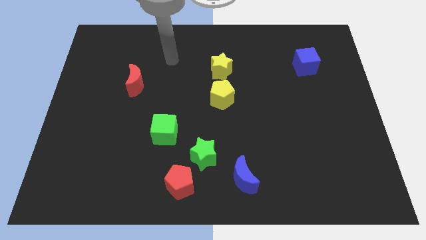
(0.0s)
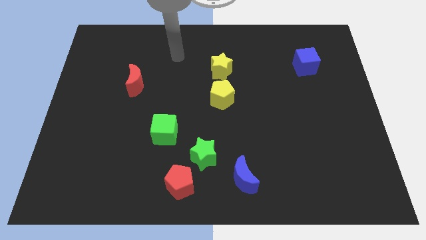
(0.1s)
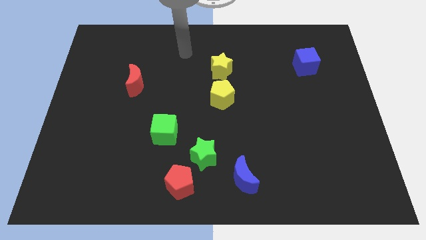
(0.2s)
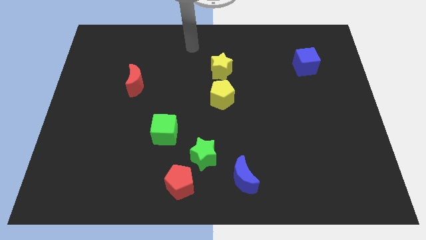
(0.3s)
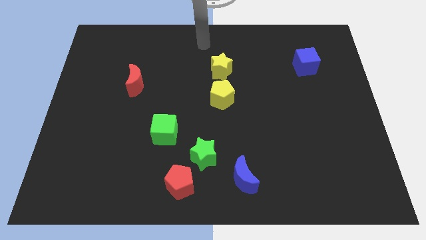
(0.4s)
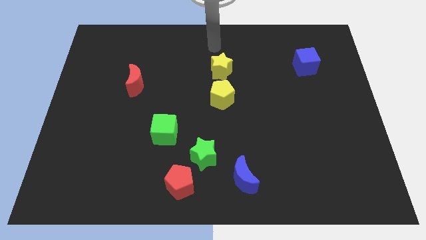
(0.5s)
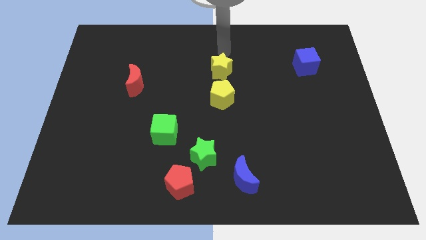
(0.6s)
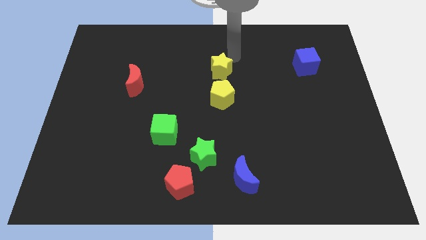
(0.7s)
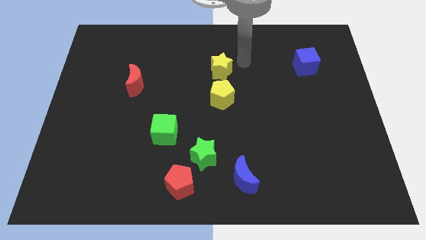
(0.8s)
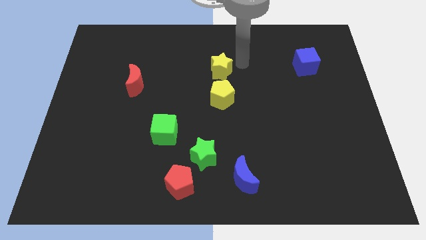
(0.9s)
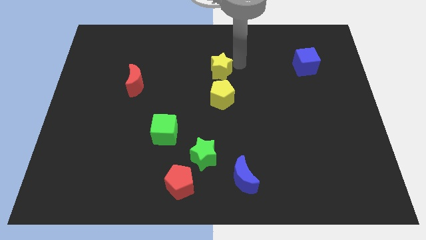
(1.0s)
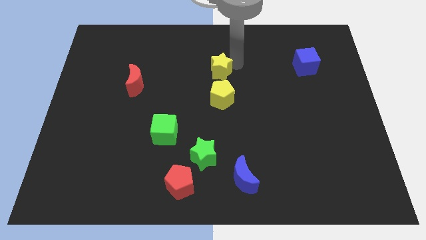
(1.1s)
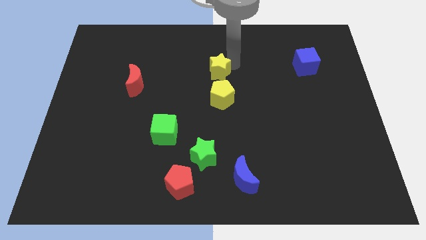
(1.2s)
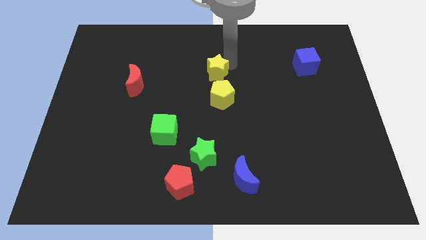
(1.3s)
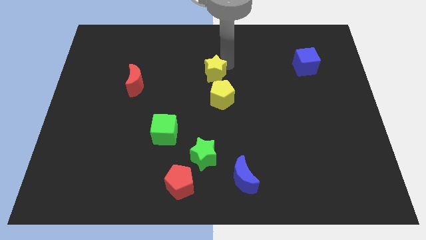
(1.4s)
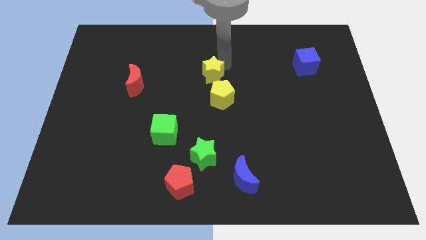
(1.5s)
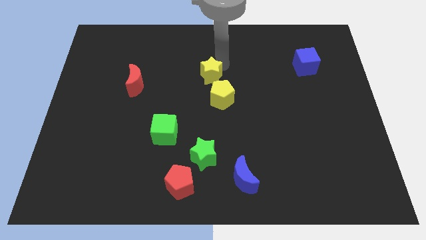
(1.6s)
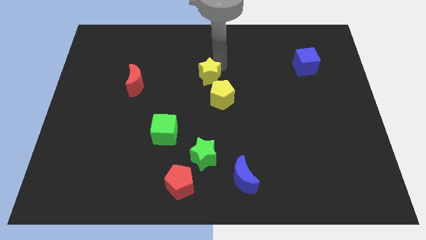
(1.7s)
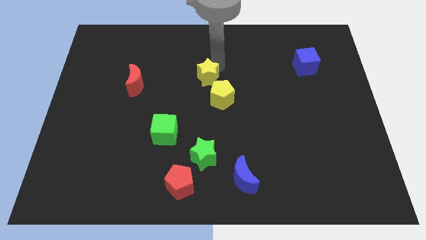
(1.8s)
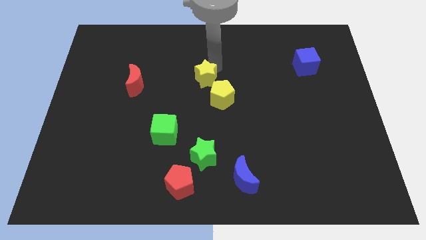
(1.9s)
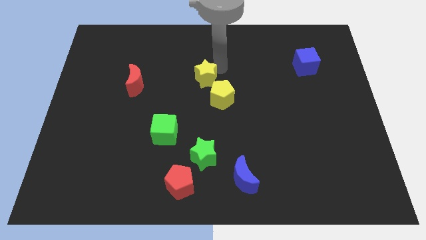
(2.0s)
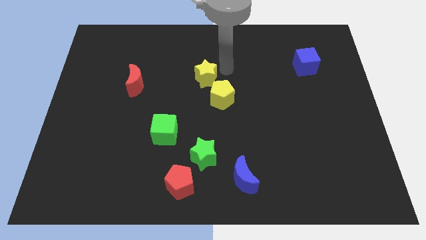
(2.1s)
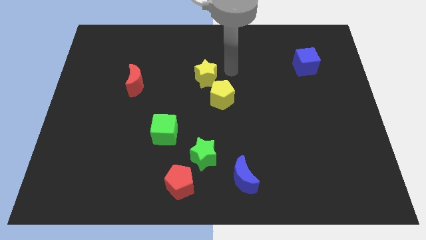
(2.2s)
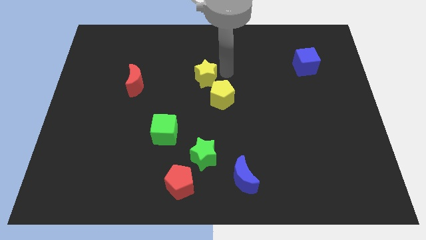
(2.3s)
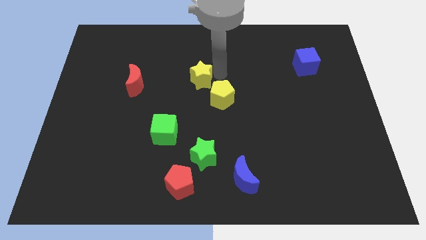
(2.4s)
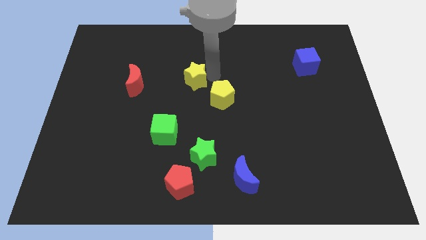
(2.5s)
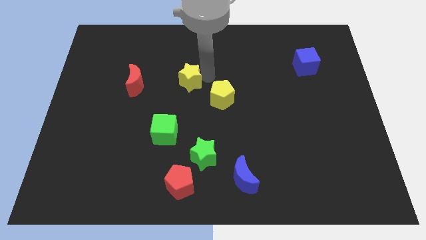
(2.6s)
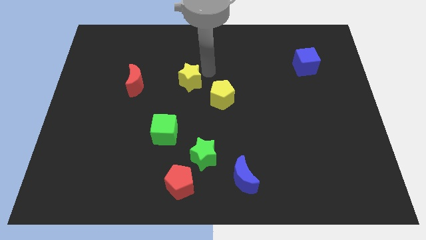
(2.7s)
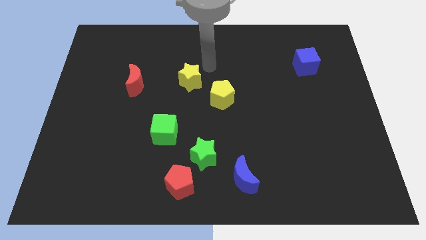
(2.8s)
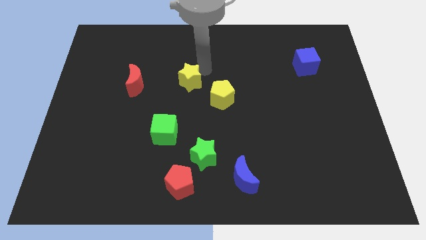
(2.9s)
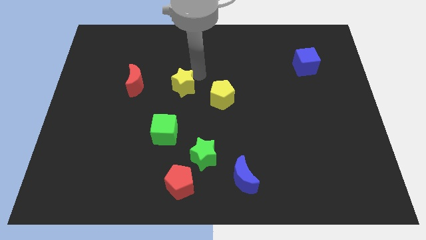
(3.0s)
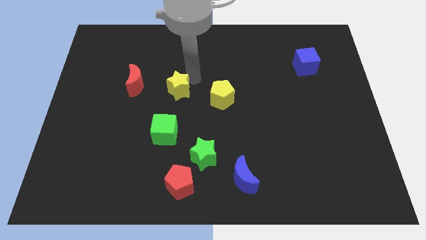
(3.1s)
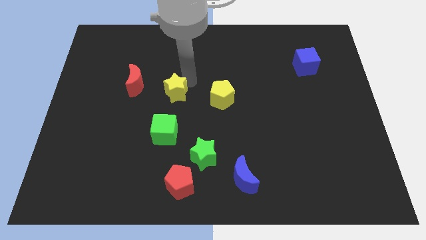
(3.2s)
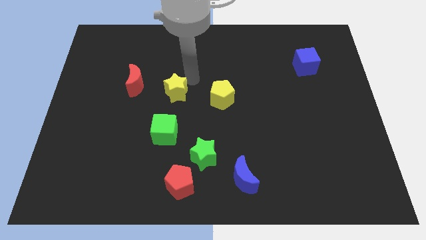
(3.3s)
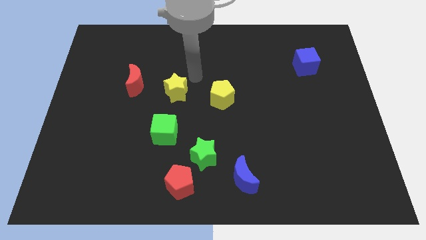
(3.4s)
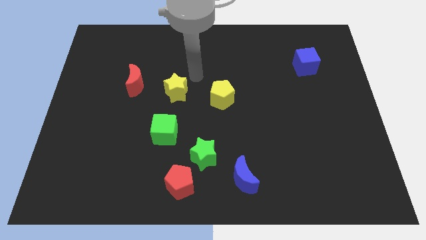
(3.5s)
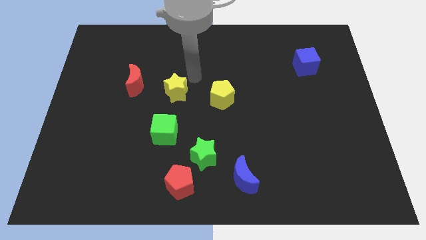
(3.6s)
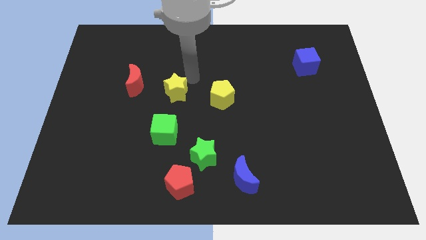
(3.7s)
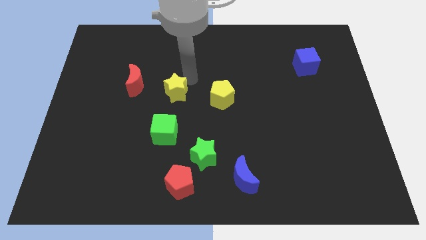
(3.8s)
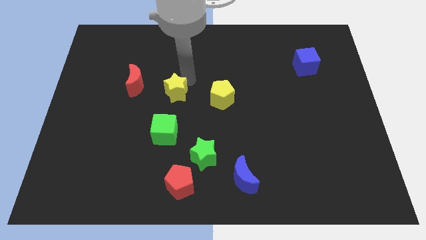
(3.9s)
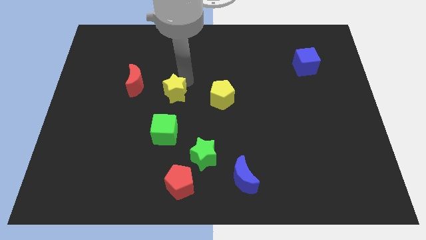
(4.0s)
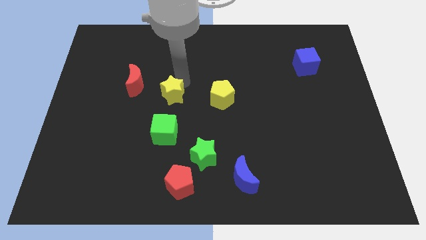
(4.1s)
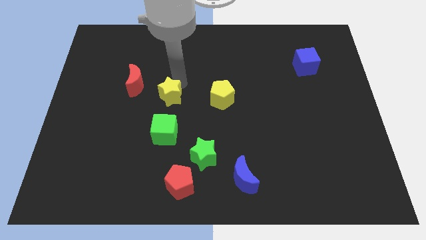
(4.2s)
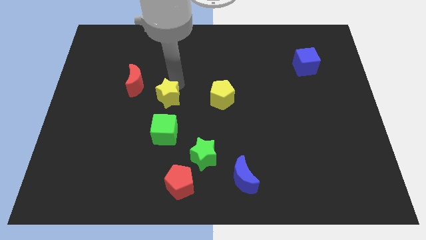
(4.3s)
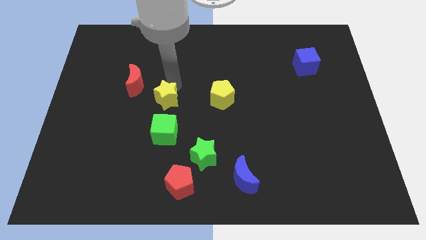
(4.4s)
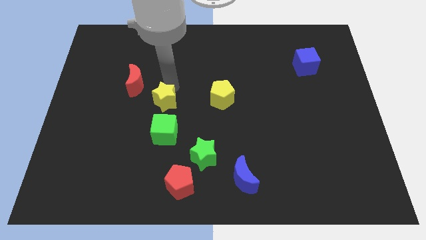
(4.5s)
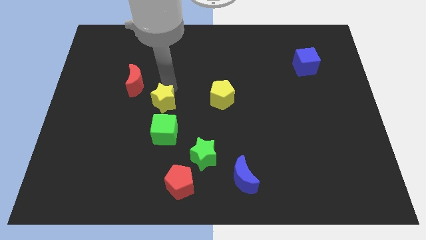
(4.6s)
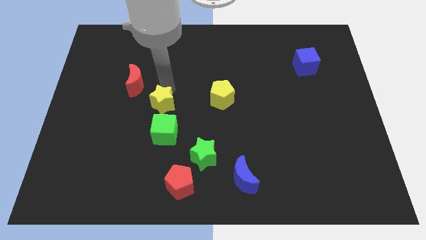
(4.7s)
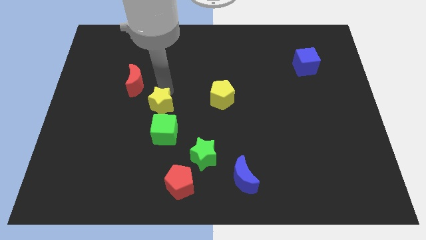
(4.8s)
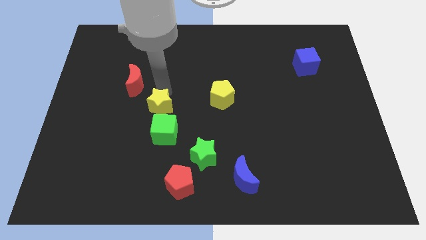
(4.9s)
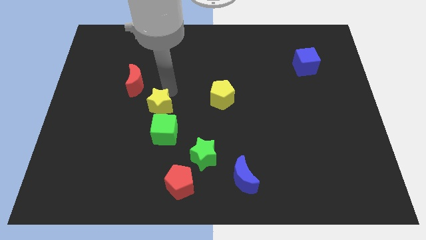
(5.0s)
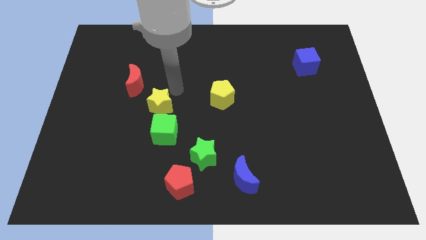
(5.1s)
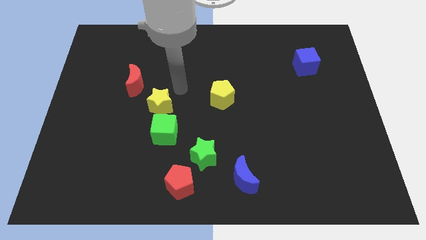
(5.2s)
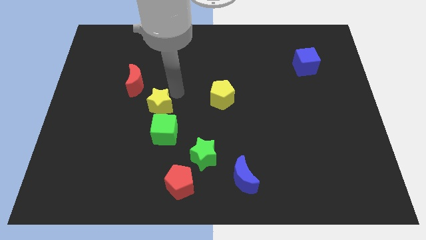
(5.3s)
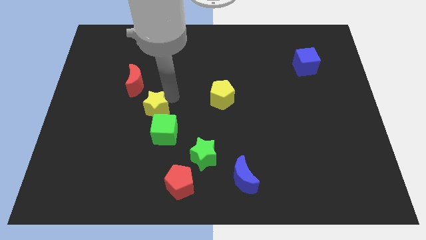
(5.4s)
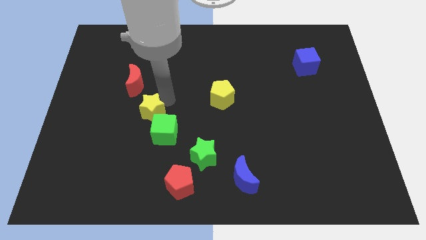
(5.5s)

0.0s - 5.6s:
slide the yellow star downwards and then left

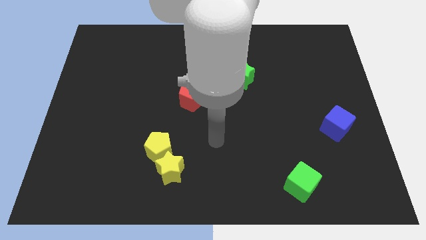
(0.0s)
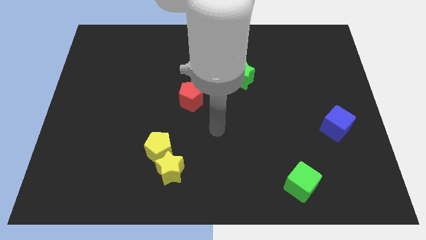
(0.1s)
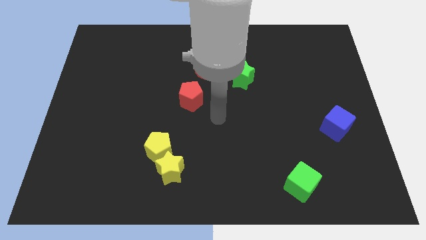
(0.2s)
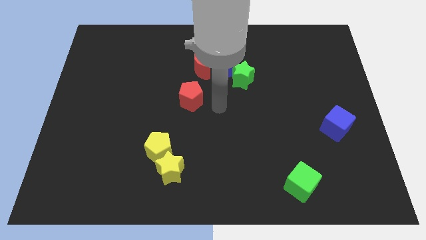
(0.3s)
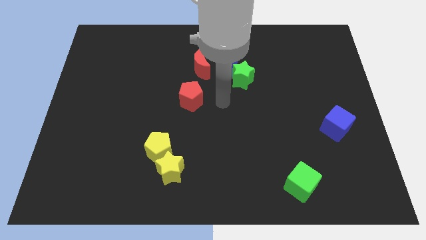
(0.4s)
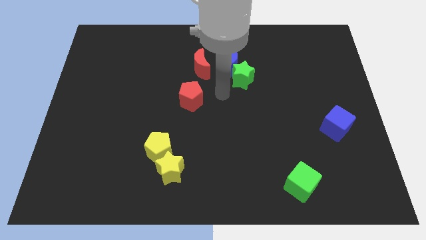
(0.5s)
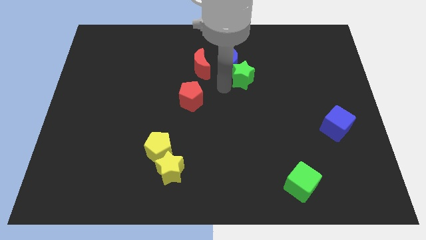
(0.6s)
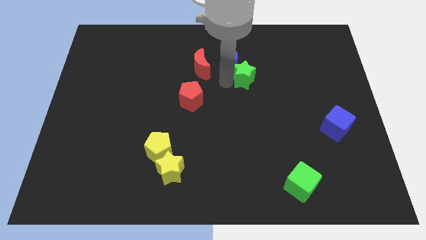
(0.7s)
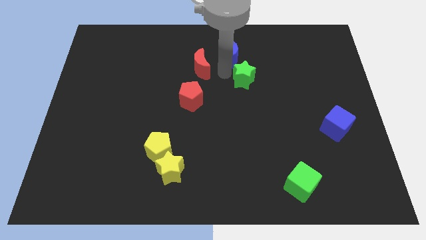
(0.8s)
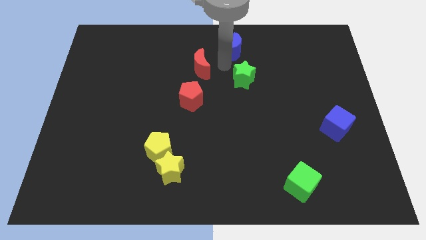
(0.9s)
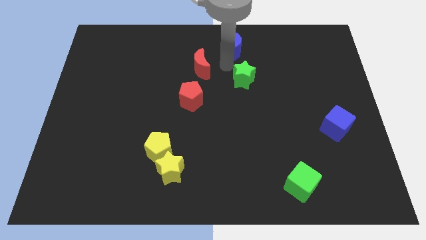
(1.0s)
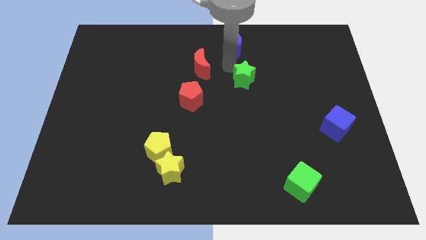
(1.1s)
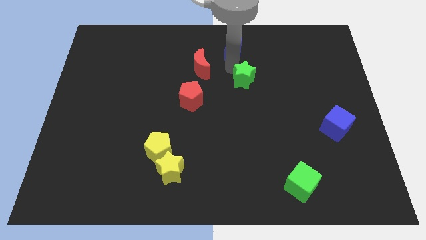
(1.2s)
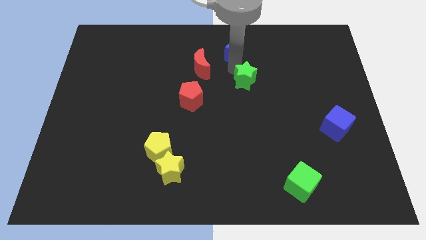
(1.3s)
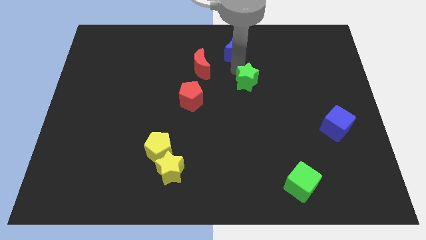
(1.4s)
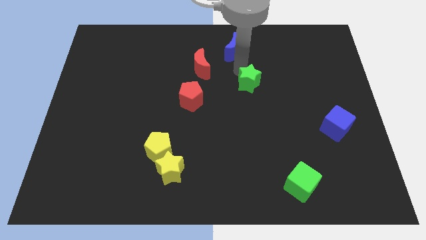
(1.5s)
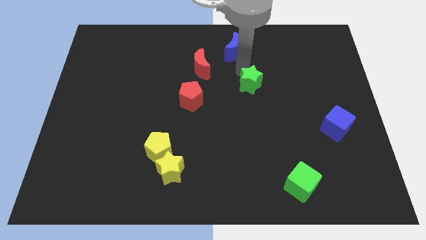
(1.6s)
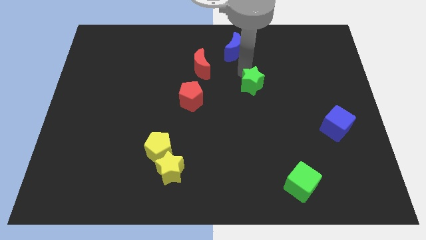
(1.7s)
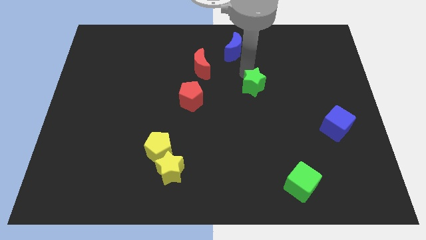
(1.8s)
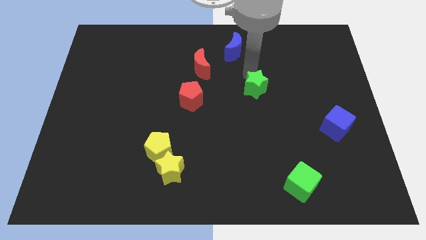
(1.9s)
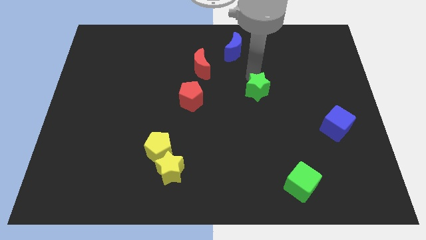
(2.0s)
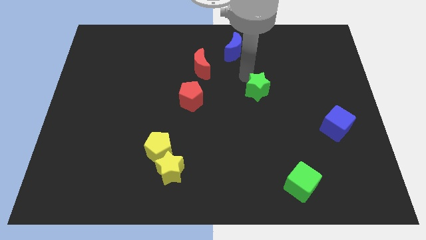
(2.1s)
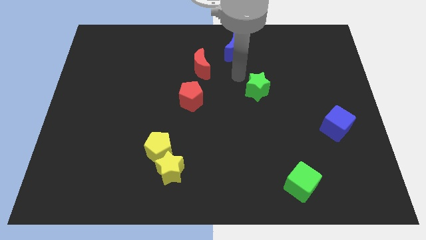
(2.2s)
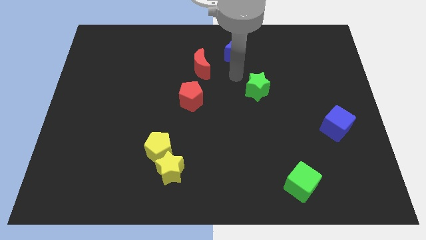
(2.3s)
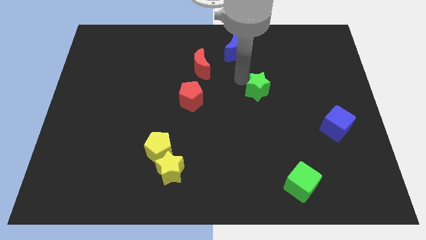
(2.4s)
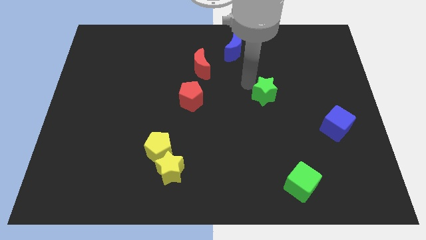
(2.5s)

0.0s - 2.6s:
slightly push the green star down and to the right diagonally
